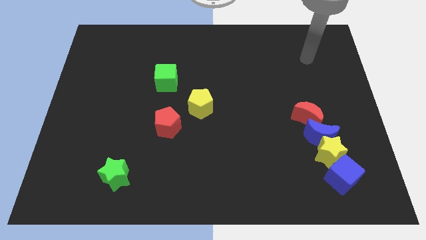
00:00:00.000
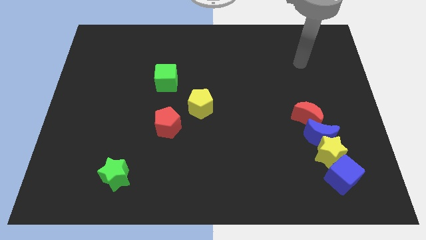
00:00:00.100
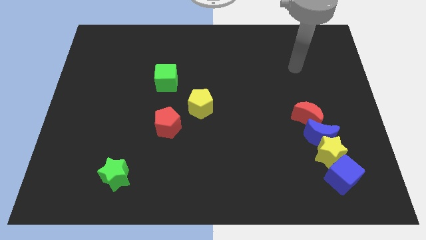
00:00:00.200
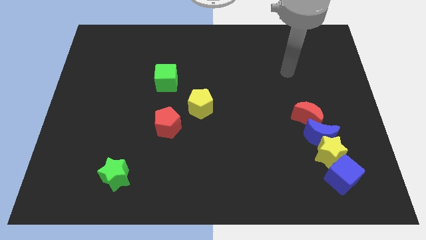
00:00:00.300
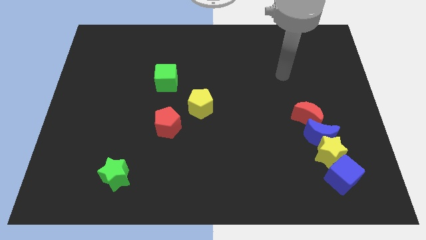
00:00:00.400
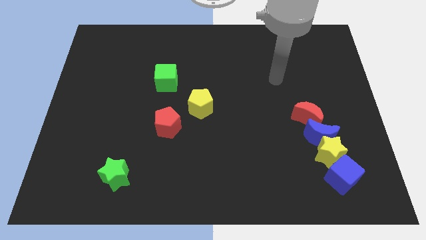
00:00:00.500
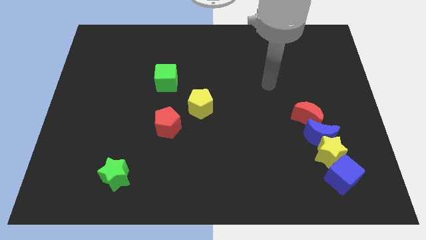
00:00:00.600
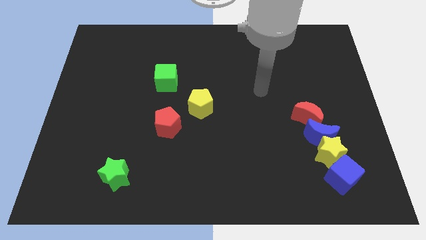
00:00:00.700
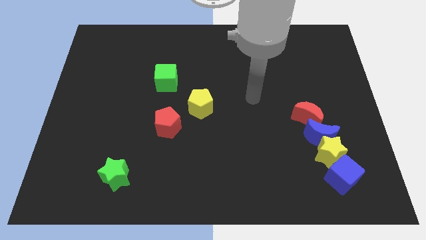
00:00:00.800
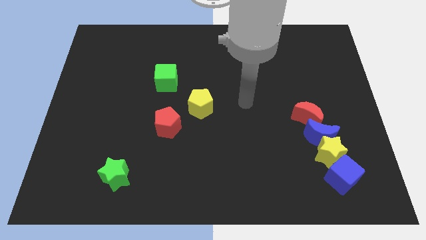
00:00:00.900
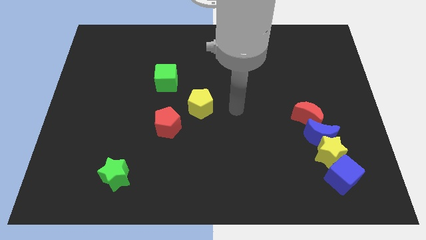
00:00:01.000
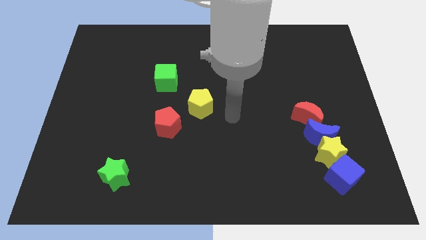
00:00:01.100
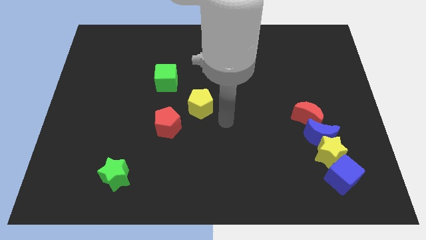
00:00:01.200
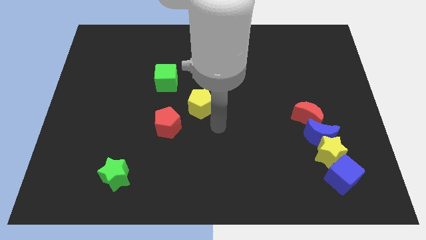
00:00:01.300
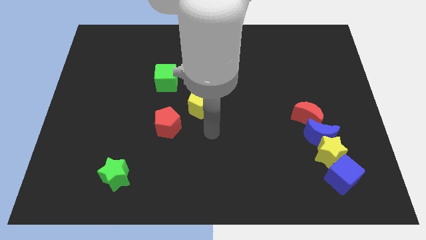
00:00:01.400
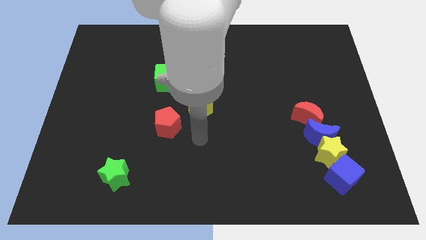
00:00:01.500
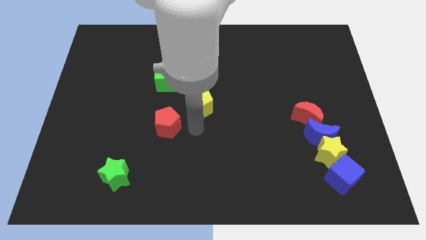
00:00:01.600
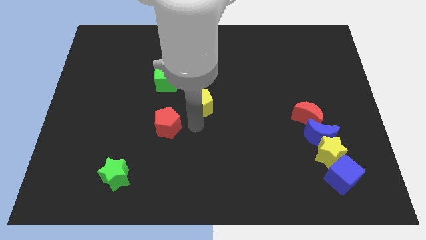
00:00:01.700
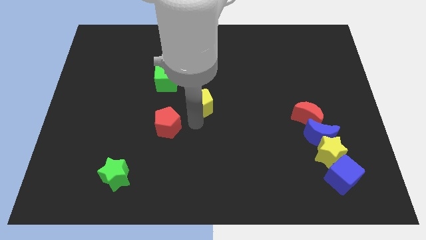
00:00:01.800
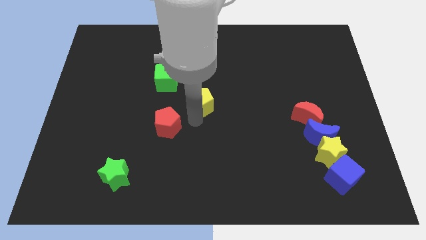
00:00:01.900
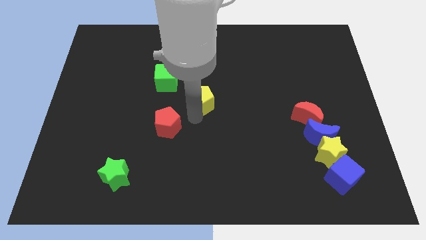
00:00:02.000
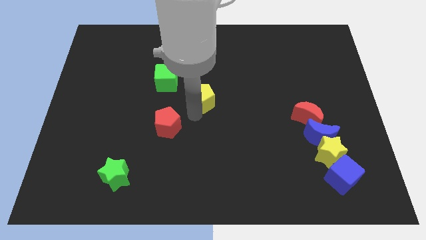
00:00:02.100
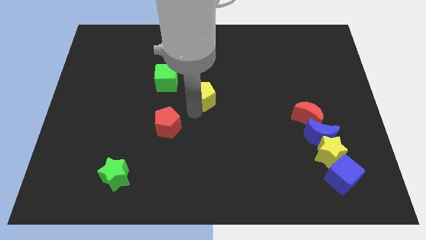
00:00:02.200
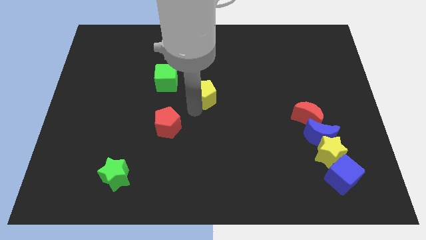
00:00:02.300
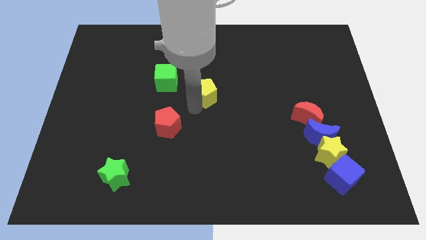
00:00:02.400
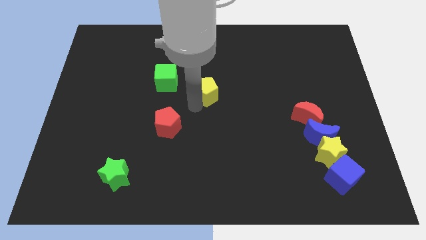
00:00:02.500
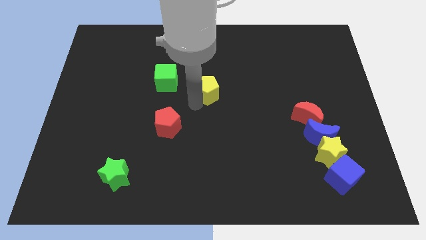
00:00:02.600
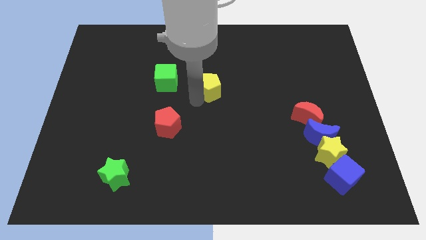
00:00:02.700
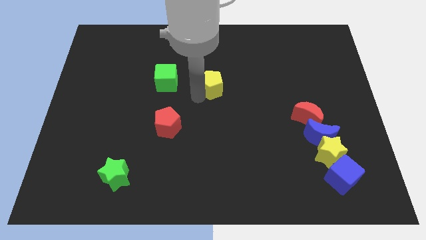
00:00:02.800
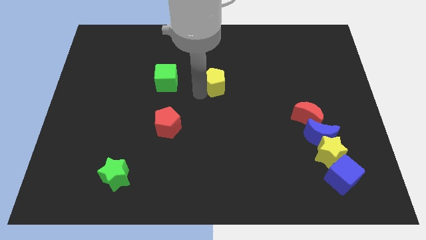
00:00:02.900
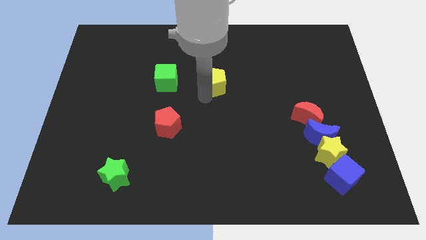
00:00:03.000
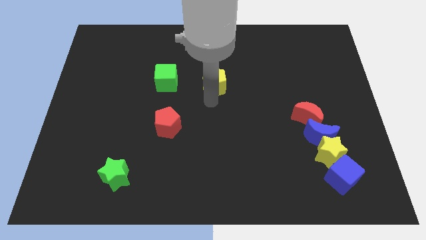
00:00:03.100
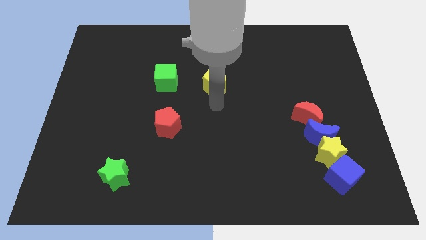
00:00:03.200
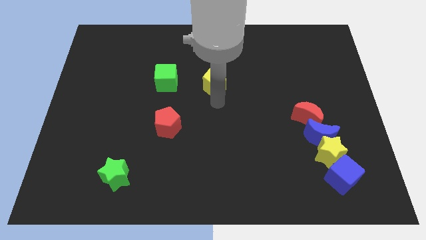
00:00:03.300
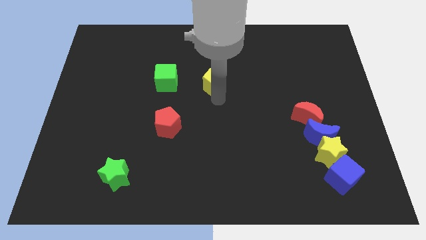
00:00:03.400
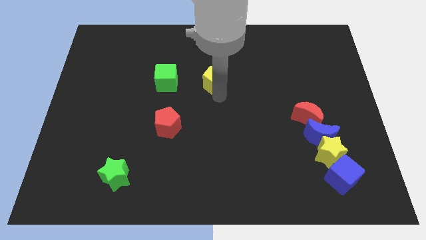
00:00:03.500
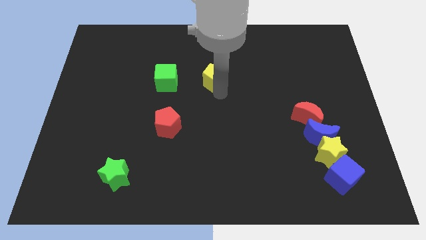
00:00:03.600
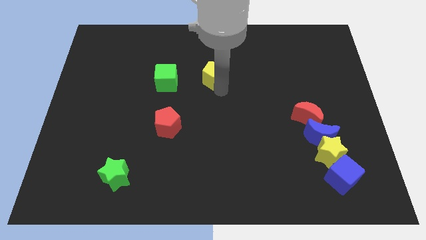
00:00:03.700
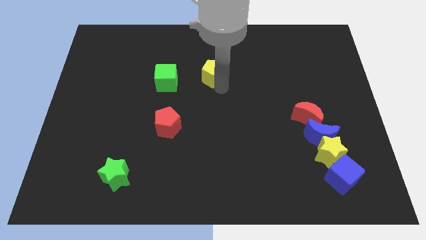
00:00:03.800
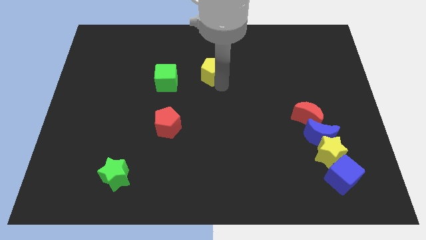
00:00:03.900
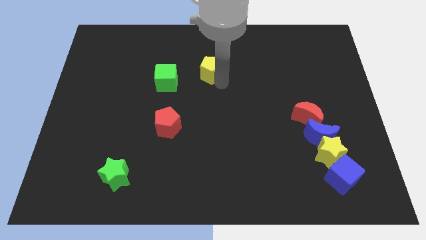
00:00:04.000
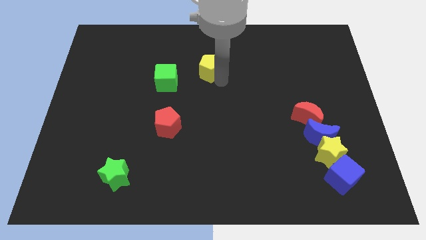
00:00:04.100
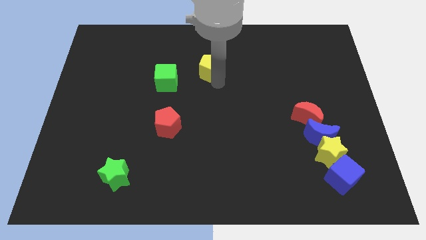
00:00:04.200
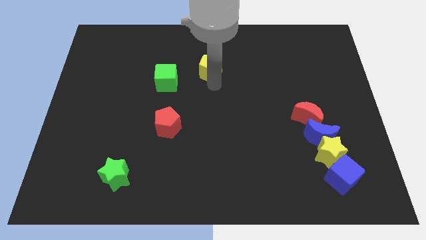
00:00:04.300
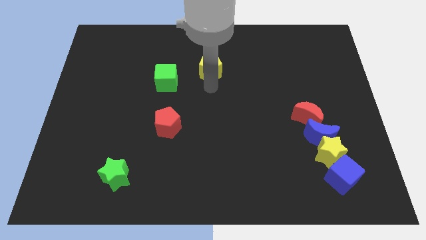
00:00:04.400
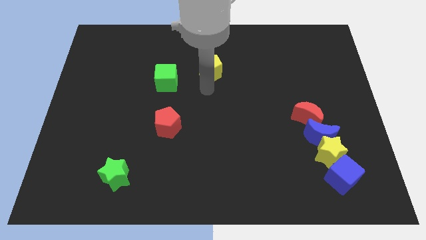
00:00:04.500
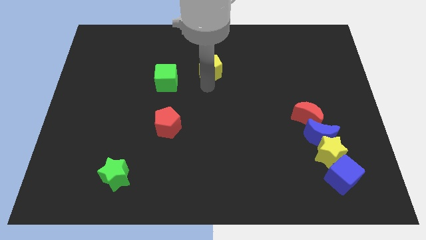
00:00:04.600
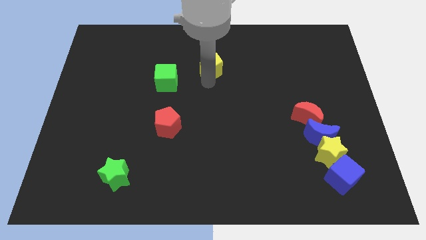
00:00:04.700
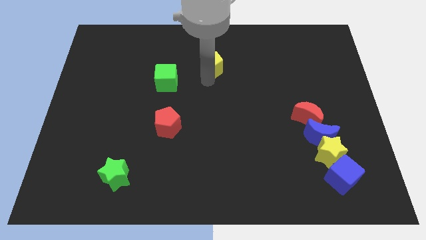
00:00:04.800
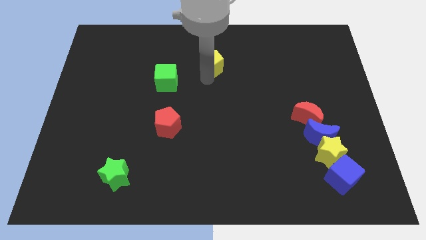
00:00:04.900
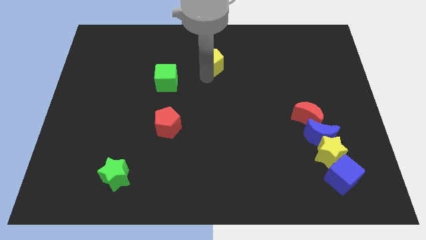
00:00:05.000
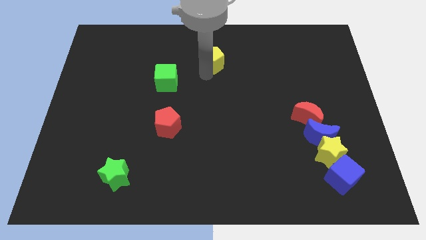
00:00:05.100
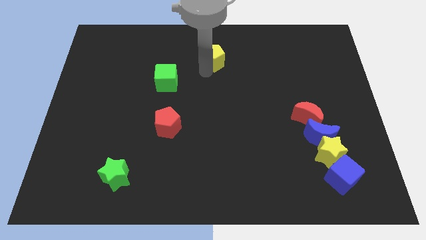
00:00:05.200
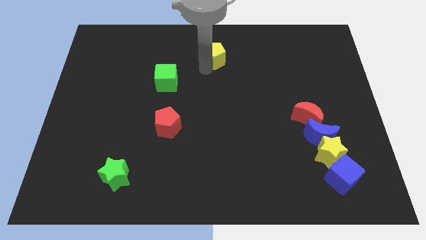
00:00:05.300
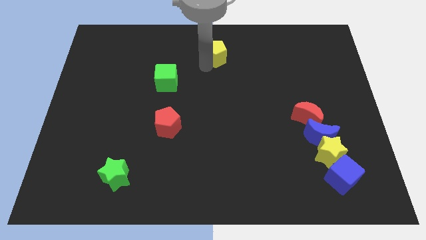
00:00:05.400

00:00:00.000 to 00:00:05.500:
push the yellow pentagon to the towards your base

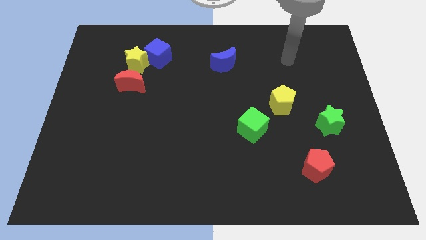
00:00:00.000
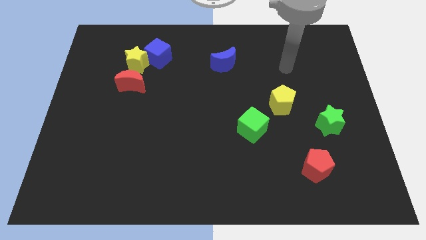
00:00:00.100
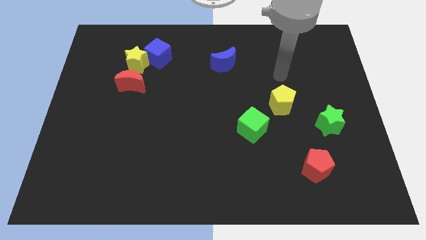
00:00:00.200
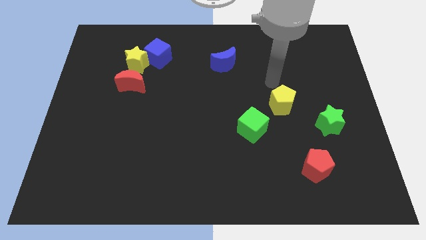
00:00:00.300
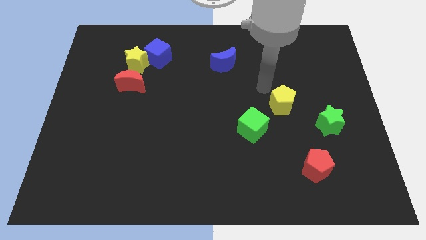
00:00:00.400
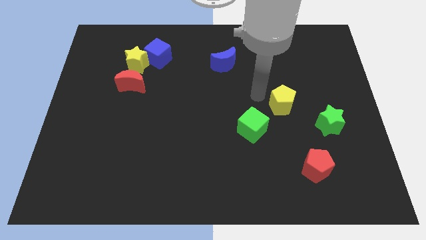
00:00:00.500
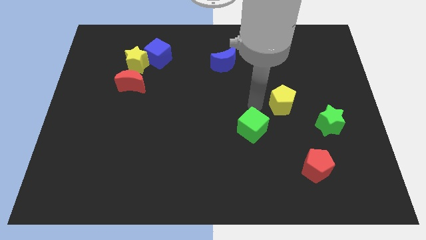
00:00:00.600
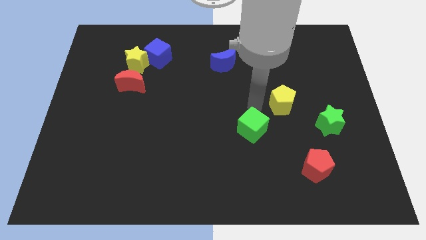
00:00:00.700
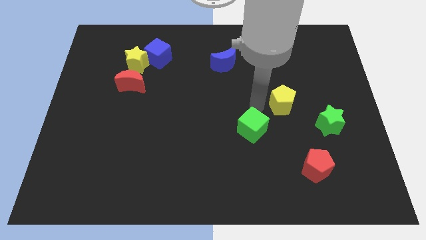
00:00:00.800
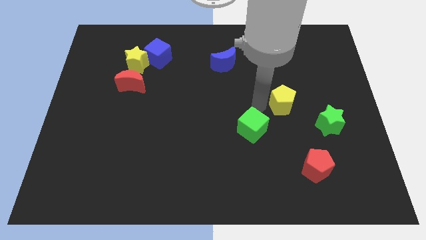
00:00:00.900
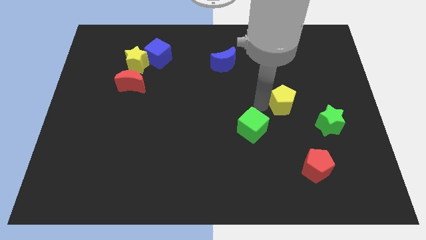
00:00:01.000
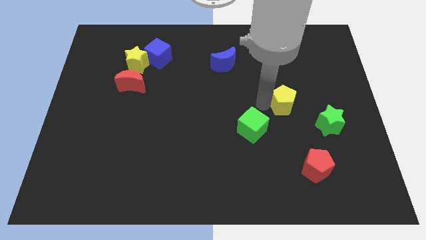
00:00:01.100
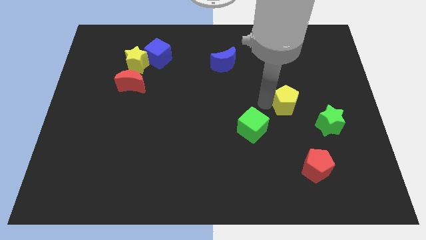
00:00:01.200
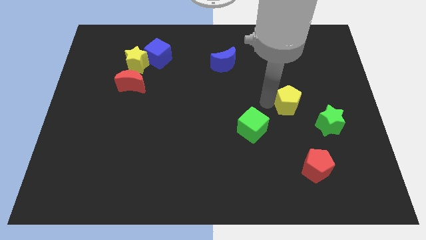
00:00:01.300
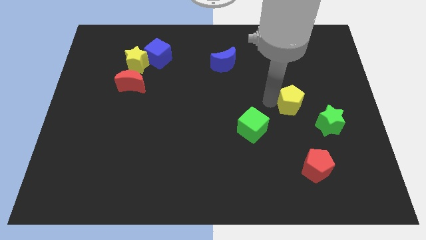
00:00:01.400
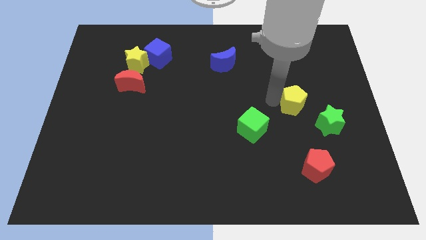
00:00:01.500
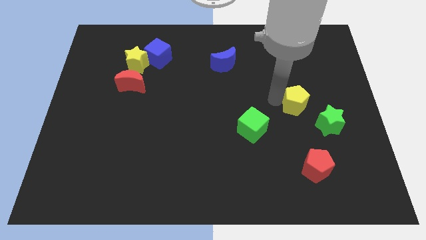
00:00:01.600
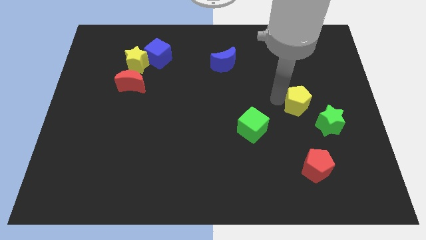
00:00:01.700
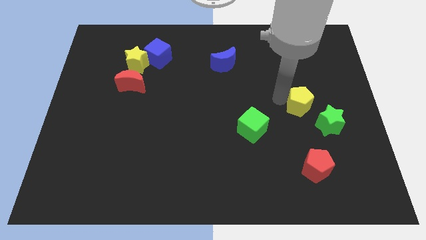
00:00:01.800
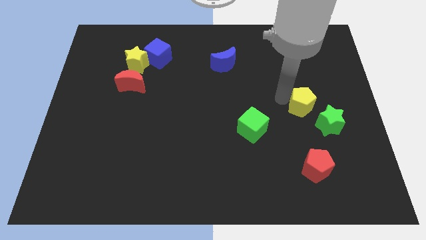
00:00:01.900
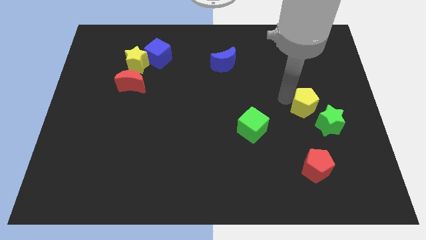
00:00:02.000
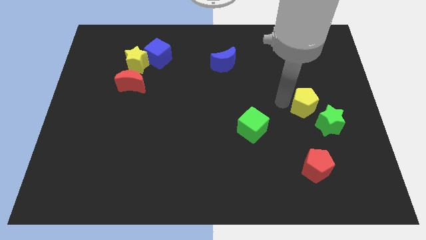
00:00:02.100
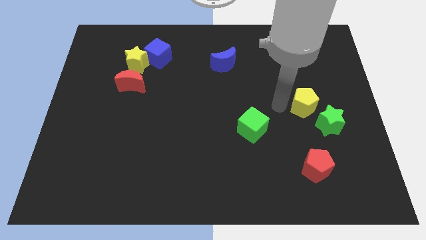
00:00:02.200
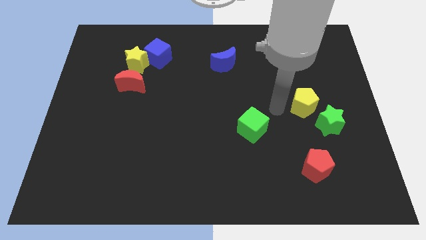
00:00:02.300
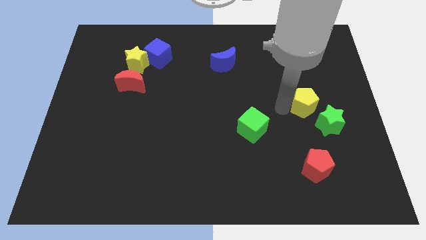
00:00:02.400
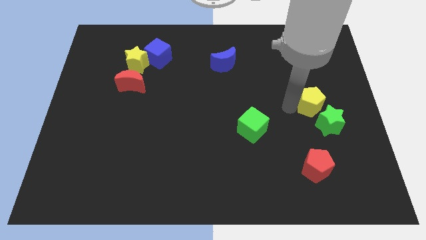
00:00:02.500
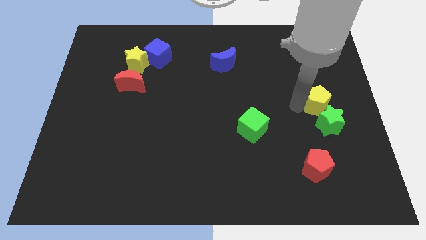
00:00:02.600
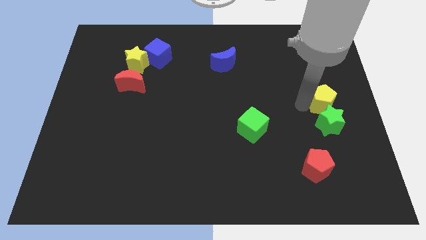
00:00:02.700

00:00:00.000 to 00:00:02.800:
slide the yellow pentagon to the right side
